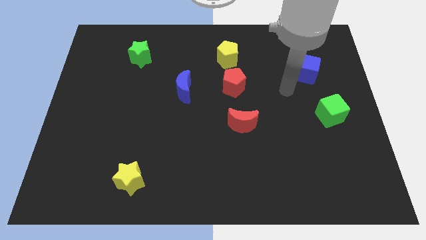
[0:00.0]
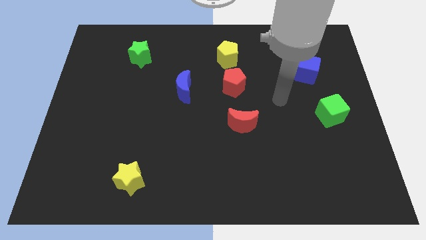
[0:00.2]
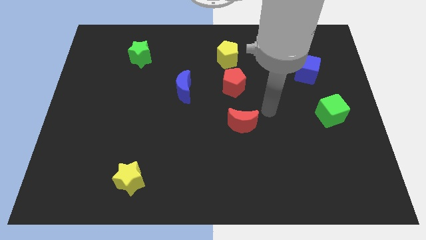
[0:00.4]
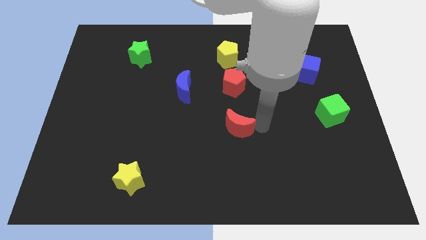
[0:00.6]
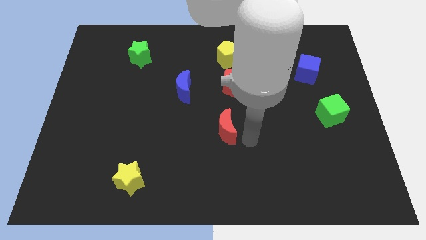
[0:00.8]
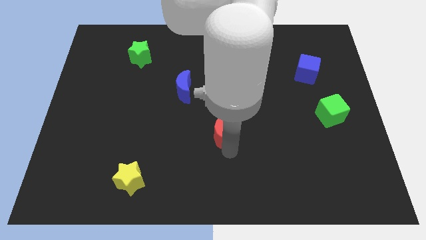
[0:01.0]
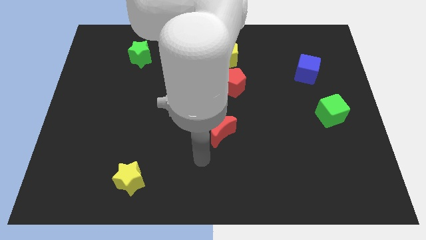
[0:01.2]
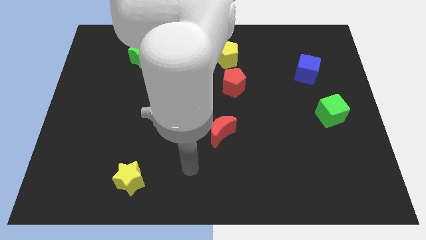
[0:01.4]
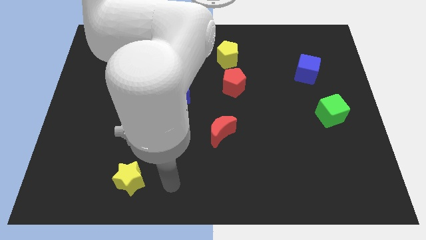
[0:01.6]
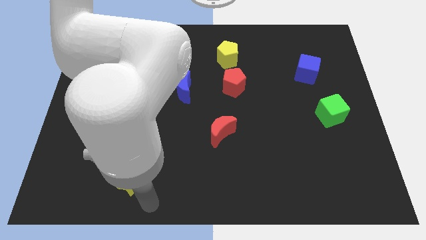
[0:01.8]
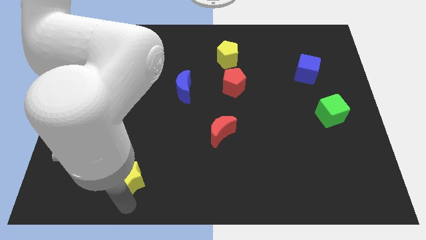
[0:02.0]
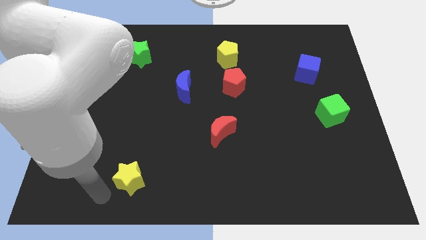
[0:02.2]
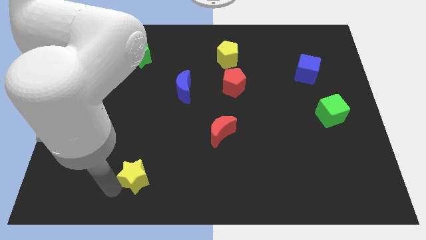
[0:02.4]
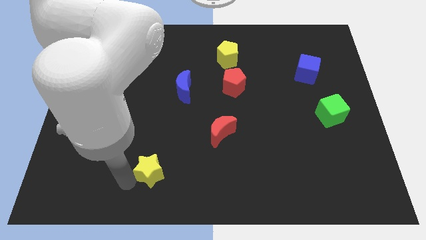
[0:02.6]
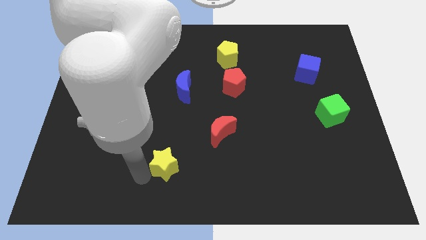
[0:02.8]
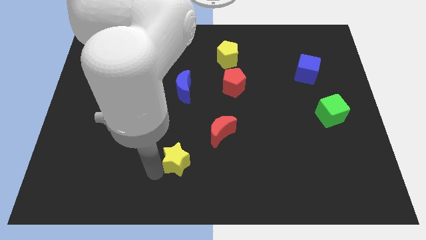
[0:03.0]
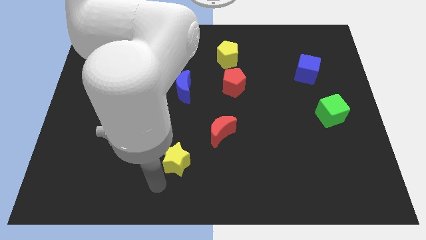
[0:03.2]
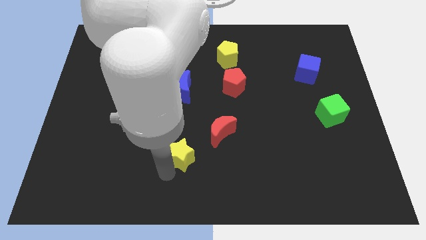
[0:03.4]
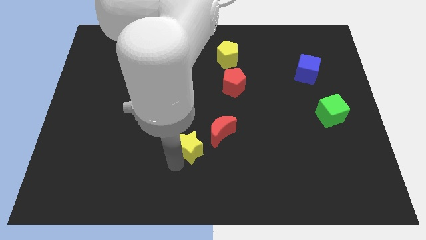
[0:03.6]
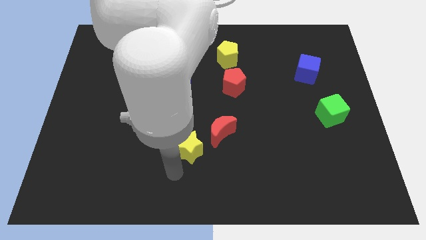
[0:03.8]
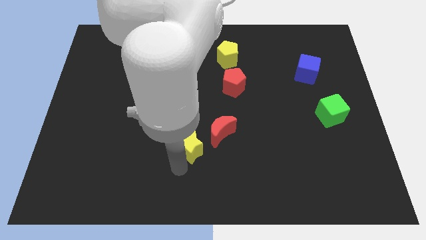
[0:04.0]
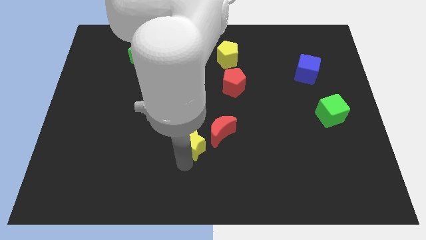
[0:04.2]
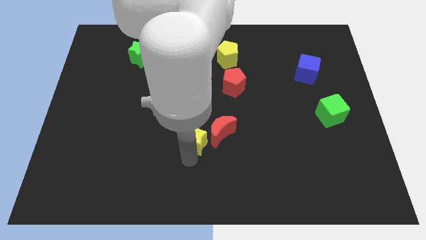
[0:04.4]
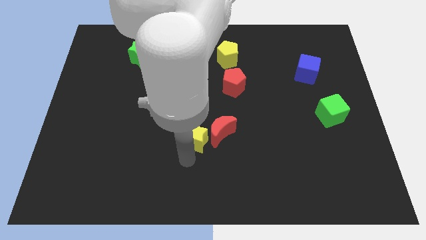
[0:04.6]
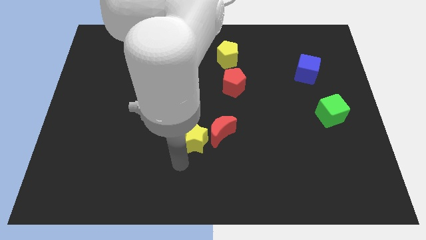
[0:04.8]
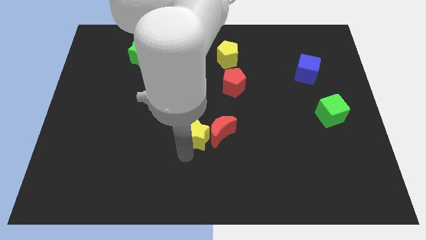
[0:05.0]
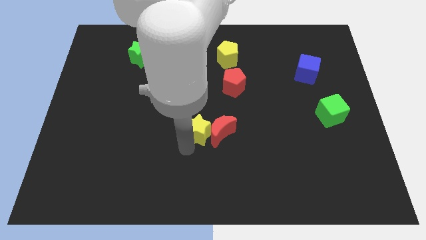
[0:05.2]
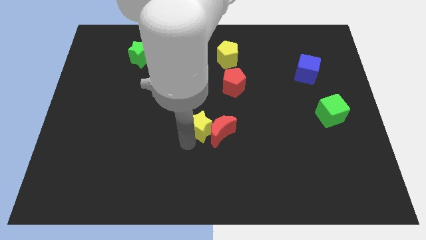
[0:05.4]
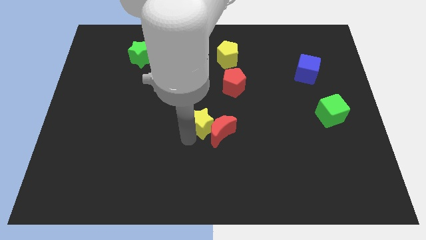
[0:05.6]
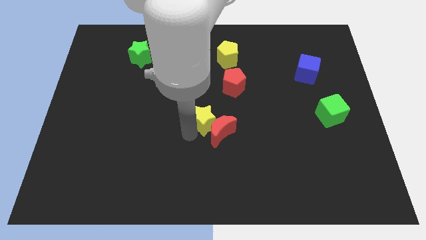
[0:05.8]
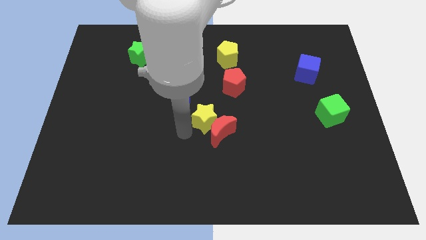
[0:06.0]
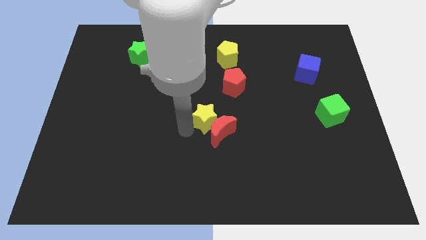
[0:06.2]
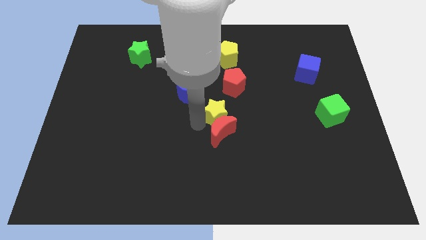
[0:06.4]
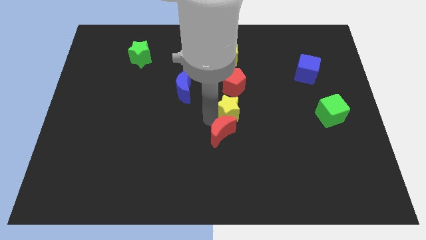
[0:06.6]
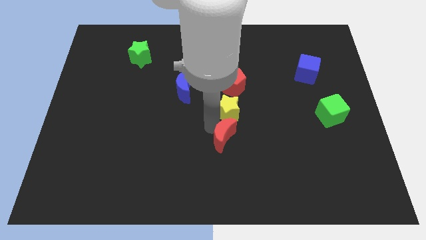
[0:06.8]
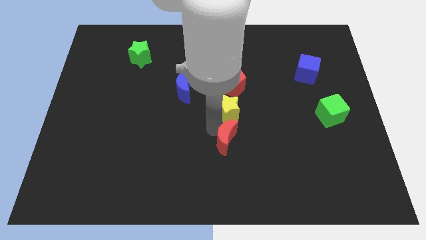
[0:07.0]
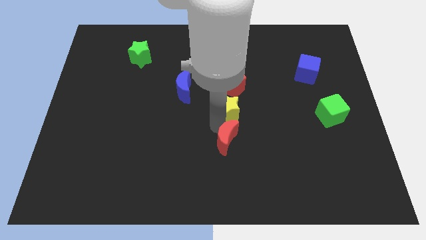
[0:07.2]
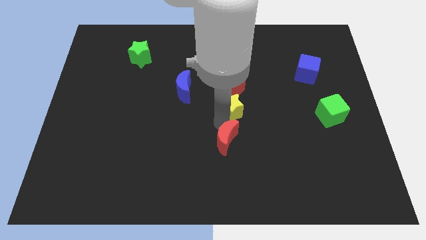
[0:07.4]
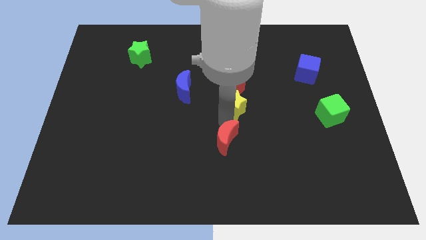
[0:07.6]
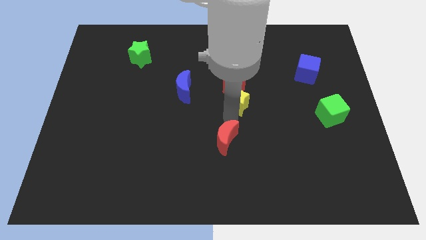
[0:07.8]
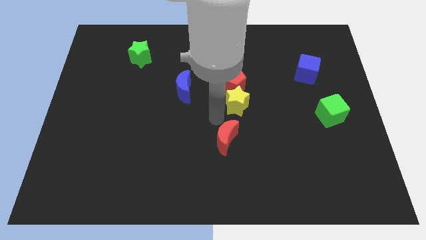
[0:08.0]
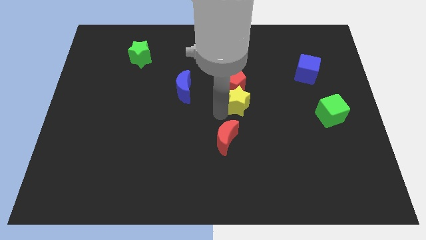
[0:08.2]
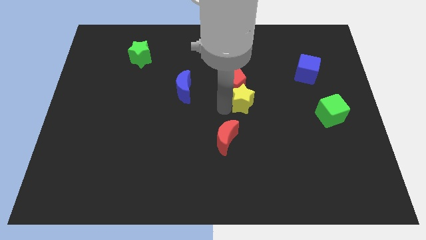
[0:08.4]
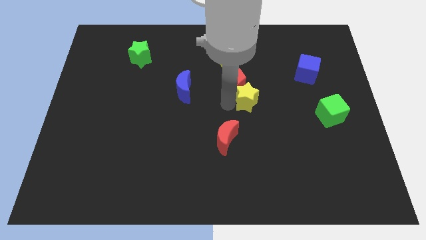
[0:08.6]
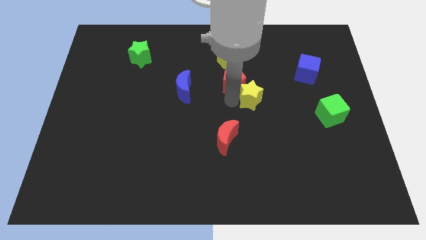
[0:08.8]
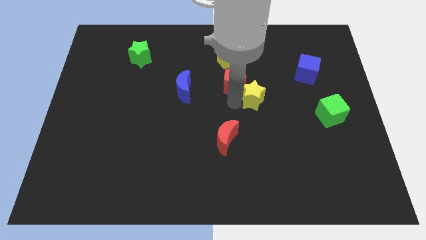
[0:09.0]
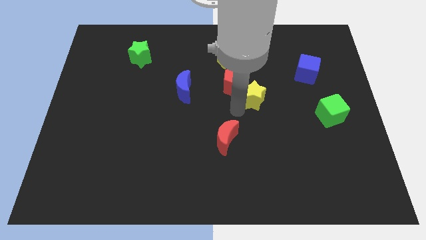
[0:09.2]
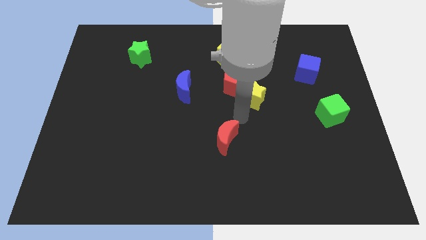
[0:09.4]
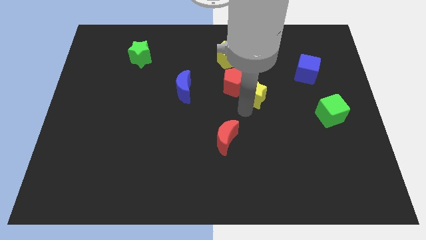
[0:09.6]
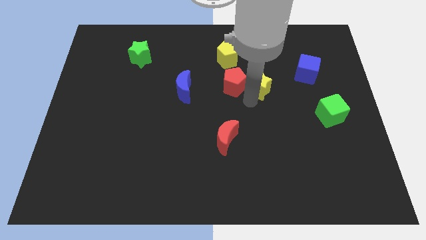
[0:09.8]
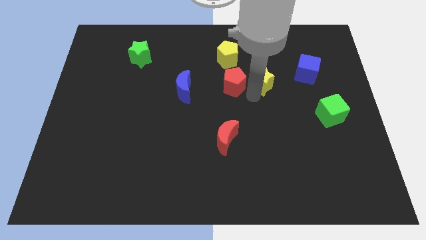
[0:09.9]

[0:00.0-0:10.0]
push the yellow star to the left side of the blue cube

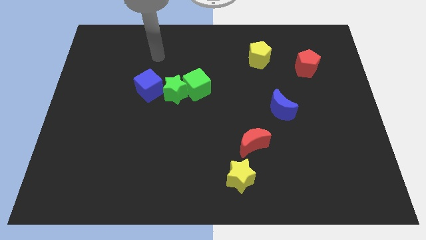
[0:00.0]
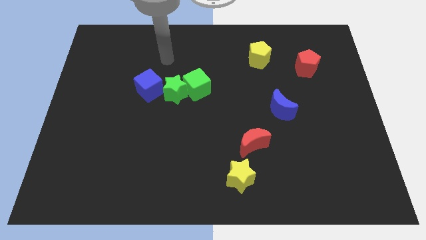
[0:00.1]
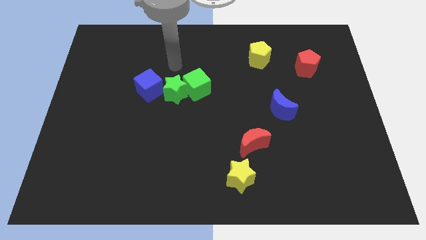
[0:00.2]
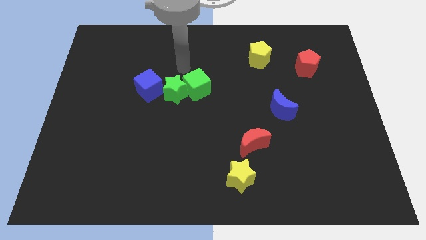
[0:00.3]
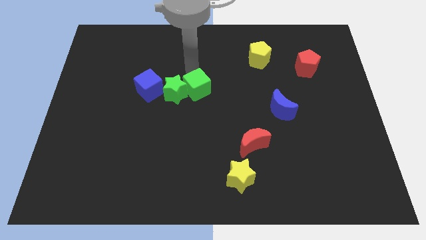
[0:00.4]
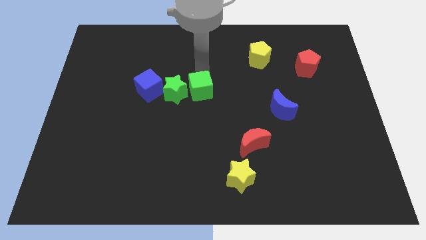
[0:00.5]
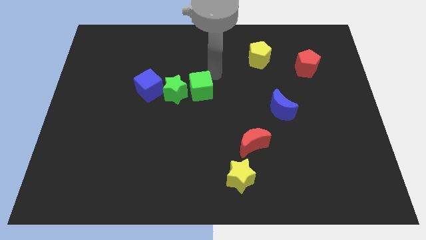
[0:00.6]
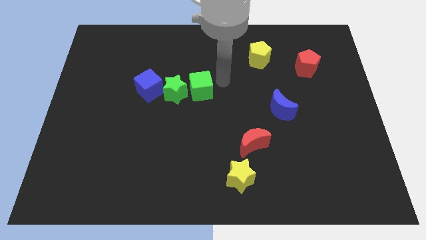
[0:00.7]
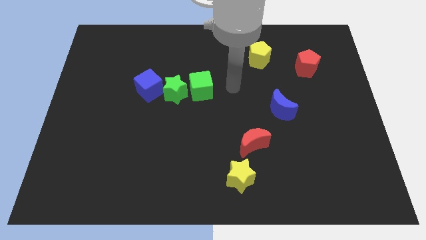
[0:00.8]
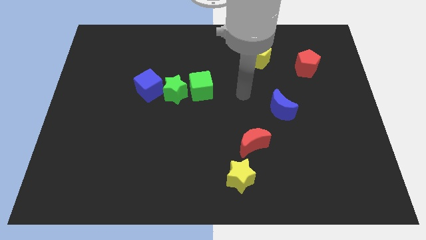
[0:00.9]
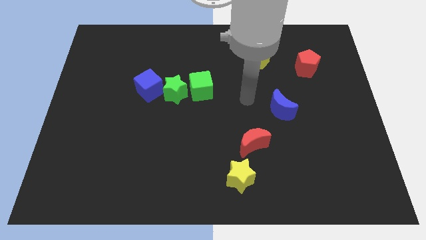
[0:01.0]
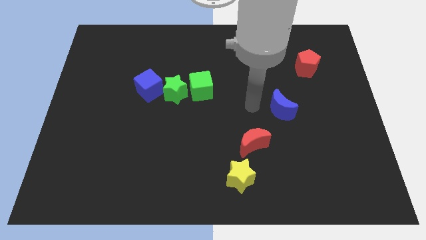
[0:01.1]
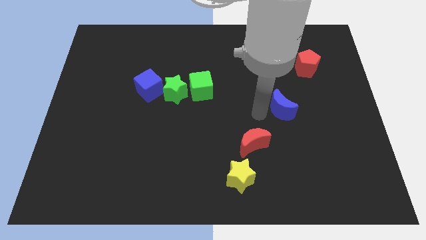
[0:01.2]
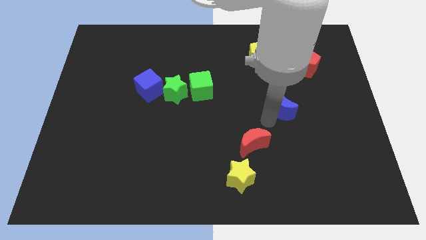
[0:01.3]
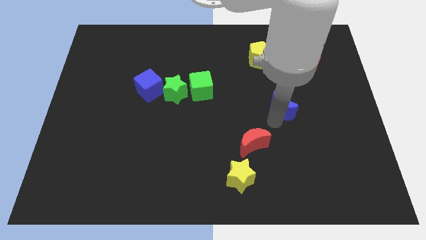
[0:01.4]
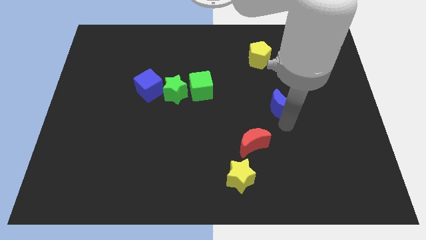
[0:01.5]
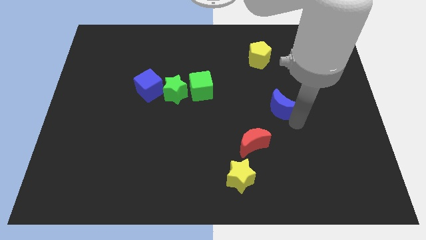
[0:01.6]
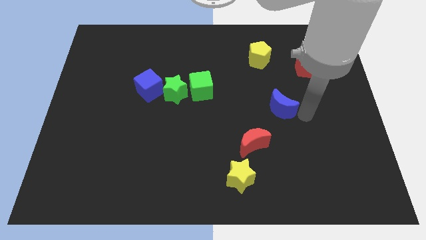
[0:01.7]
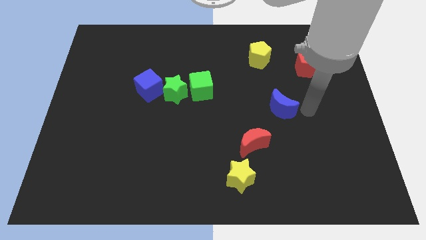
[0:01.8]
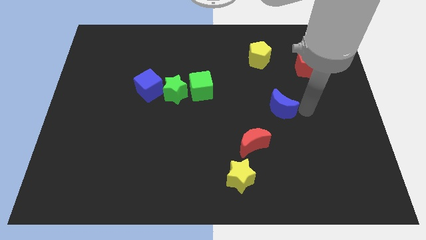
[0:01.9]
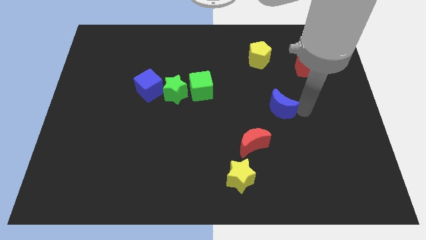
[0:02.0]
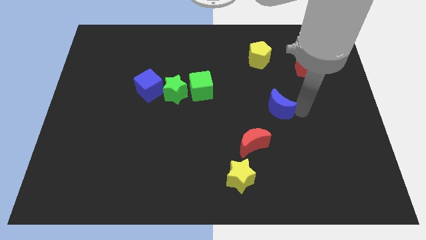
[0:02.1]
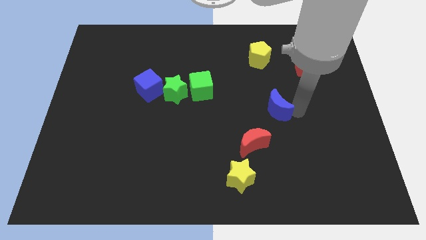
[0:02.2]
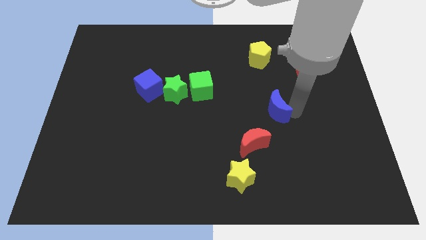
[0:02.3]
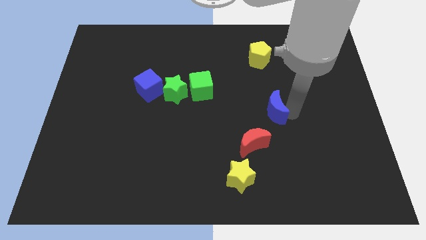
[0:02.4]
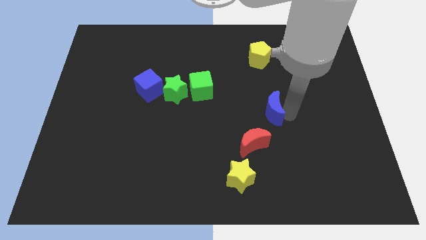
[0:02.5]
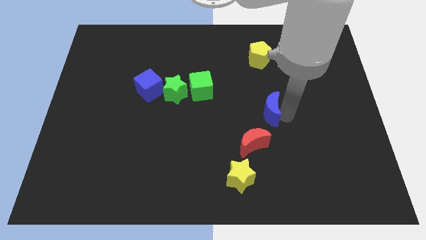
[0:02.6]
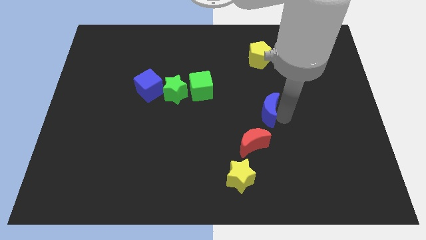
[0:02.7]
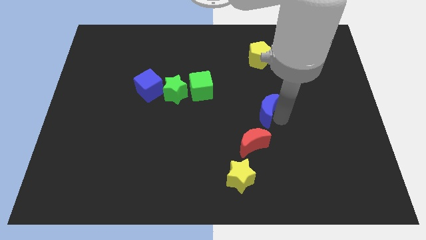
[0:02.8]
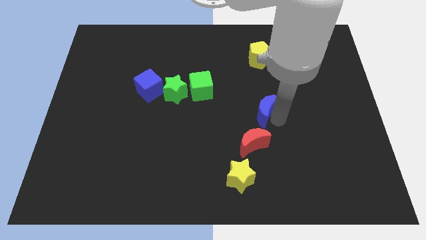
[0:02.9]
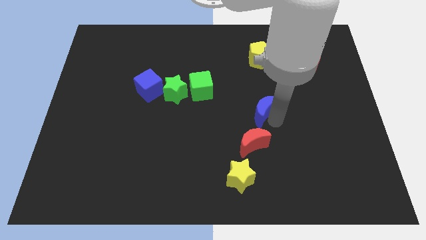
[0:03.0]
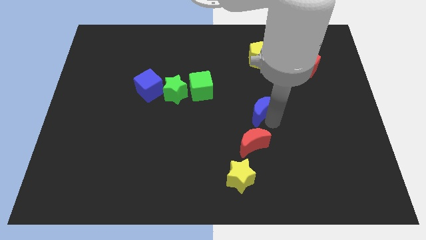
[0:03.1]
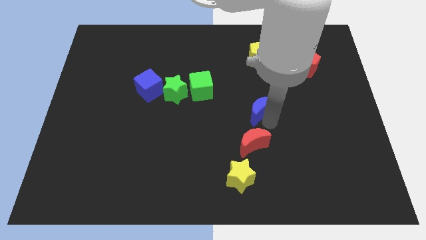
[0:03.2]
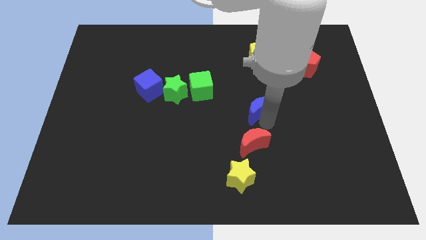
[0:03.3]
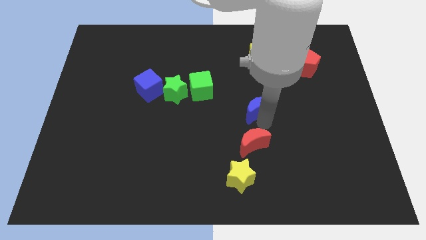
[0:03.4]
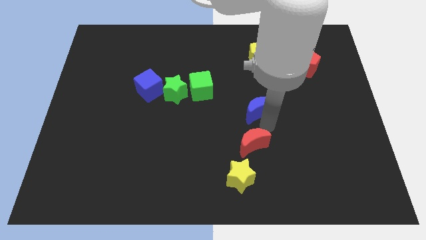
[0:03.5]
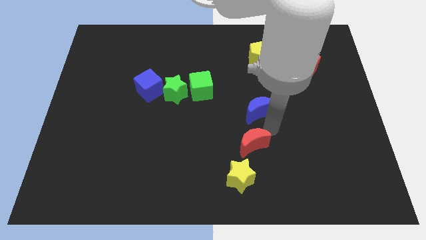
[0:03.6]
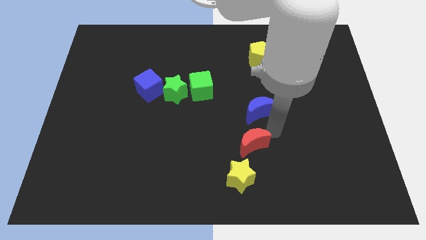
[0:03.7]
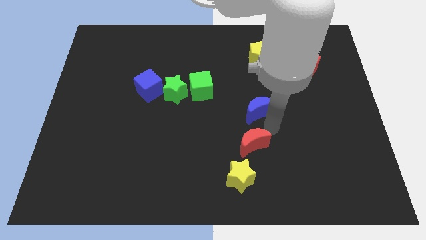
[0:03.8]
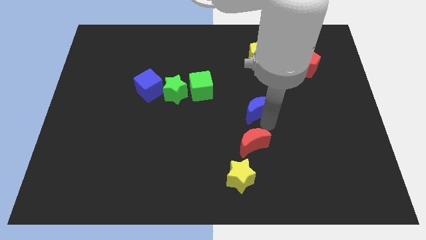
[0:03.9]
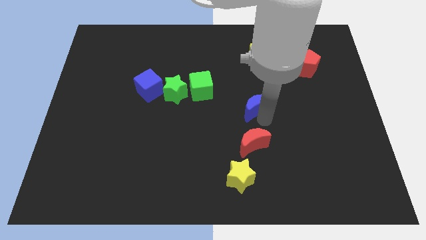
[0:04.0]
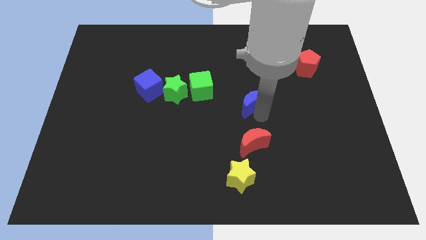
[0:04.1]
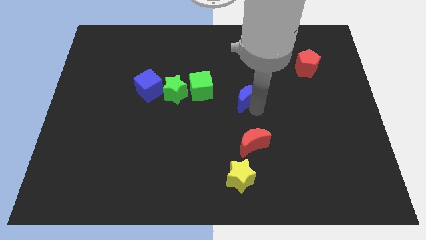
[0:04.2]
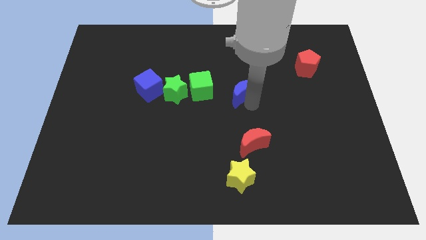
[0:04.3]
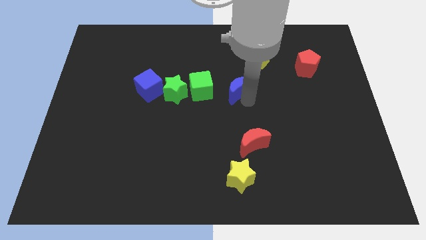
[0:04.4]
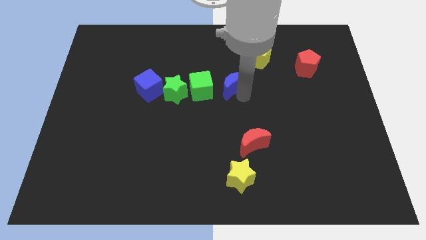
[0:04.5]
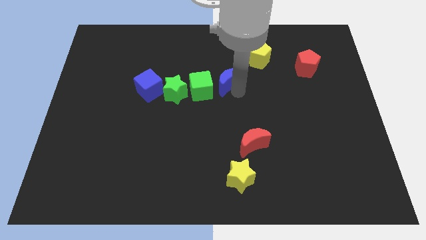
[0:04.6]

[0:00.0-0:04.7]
push the blue moon to the top right side of the green cube
